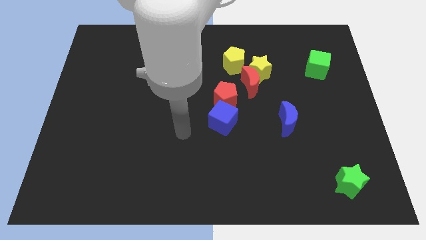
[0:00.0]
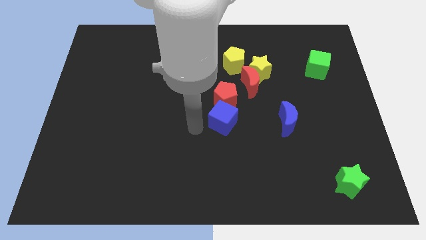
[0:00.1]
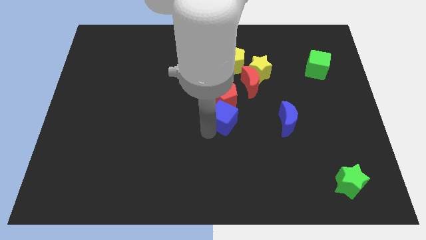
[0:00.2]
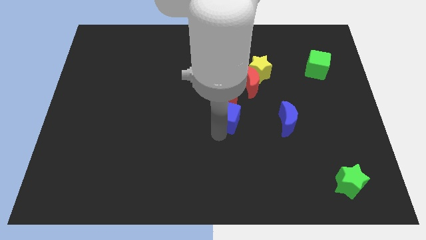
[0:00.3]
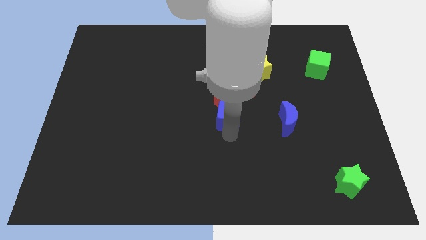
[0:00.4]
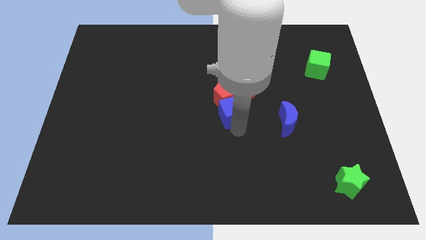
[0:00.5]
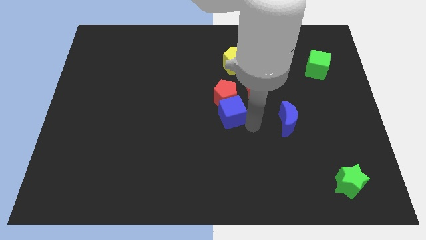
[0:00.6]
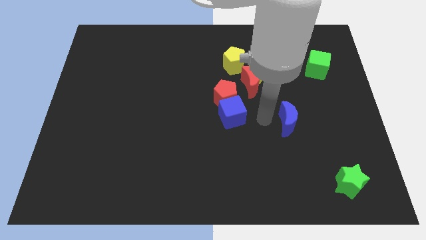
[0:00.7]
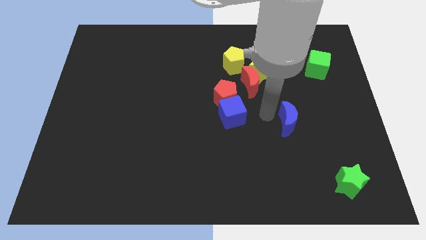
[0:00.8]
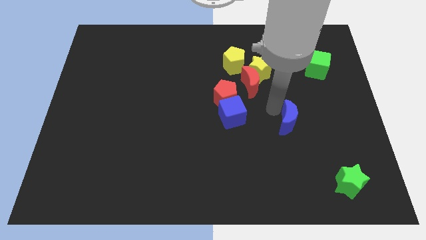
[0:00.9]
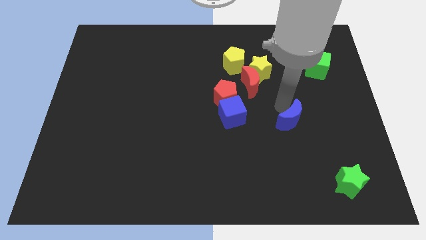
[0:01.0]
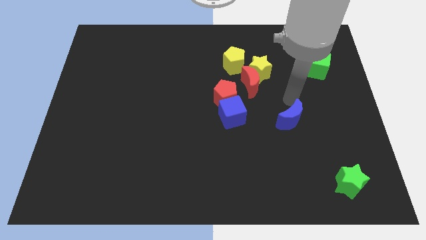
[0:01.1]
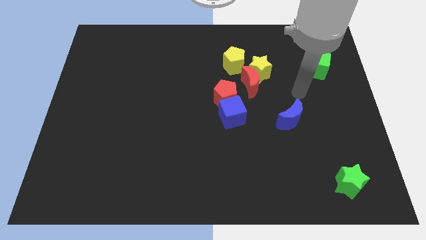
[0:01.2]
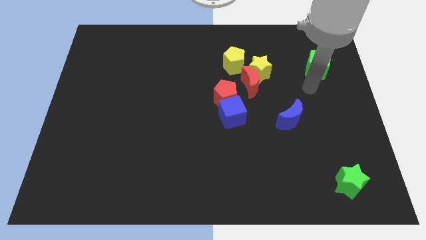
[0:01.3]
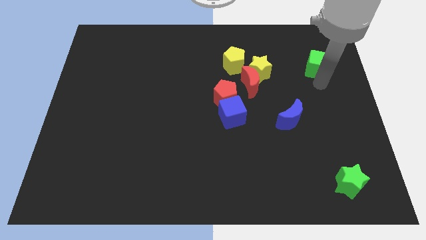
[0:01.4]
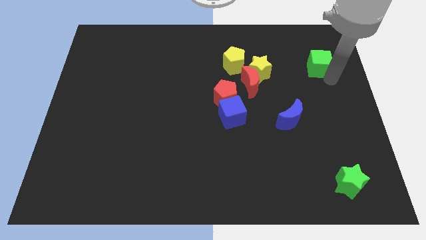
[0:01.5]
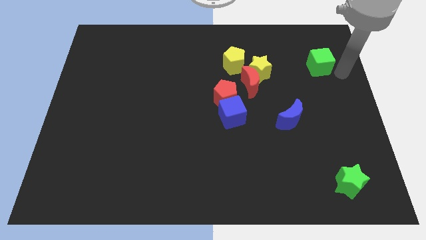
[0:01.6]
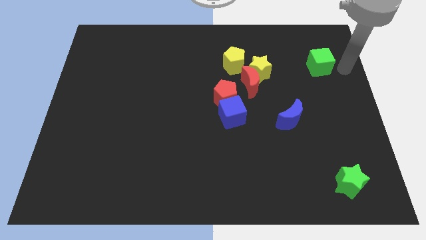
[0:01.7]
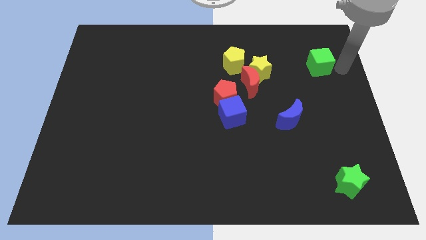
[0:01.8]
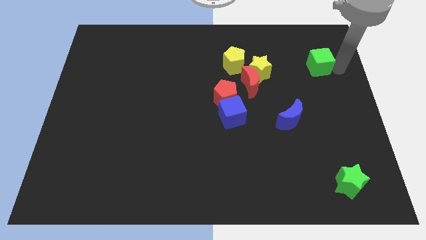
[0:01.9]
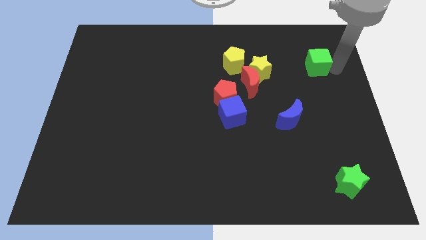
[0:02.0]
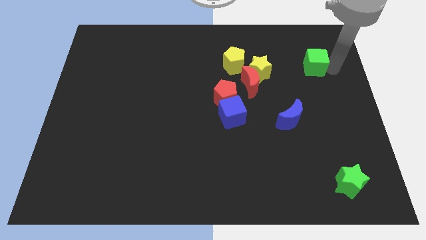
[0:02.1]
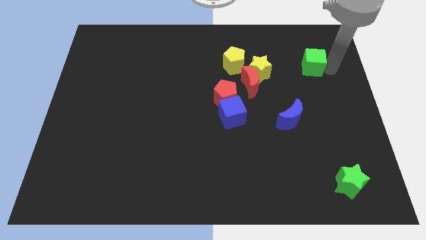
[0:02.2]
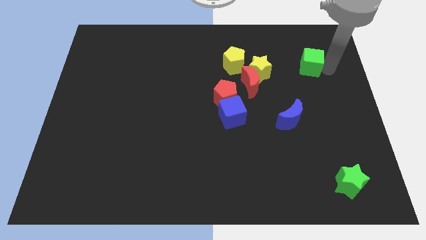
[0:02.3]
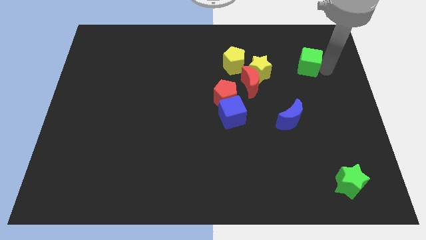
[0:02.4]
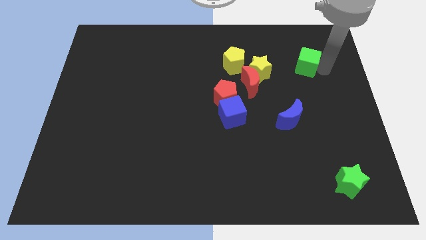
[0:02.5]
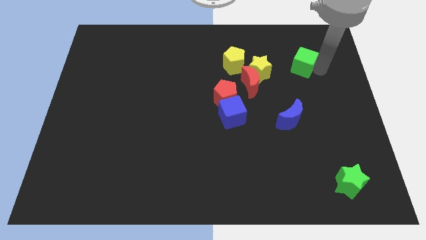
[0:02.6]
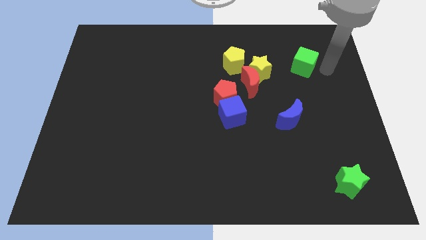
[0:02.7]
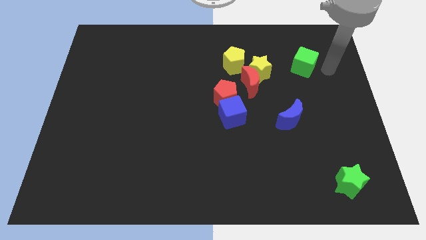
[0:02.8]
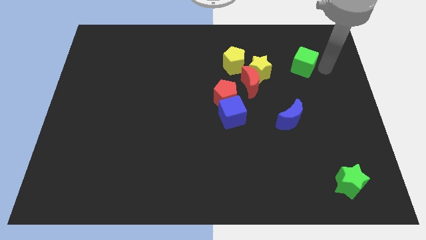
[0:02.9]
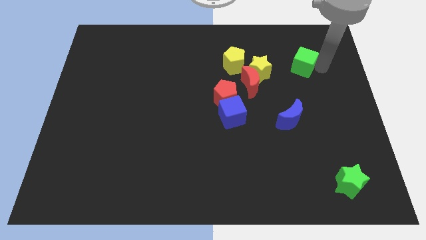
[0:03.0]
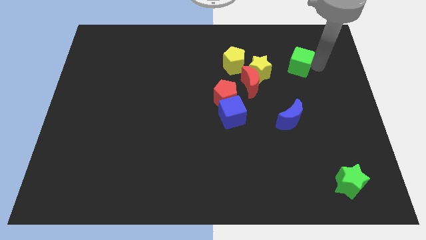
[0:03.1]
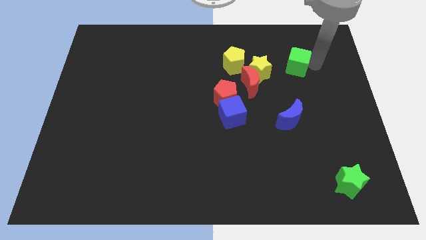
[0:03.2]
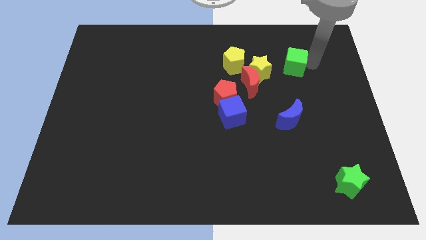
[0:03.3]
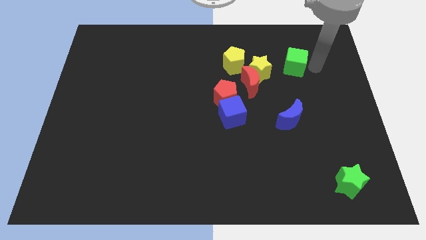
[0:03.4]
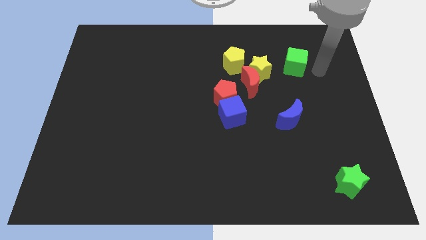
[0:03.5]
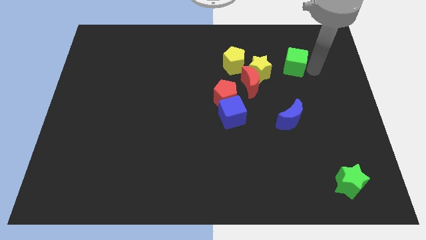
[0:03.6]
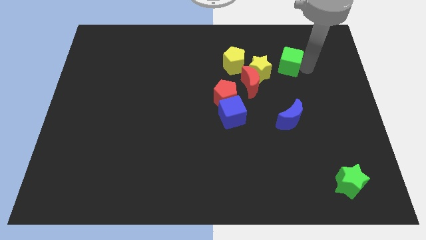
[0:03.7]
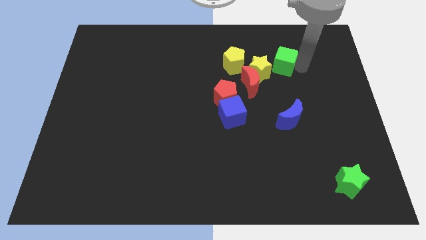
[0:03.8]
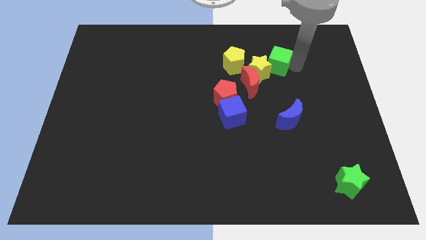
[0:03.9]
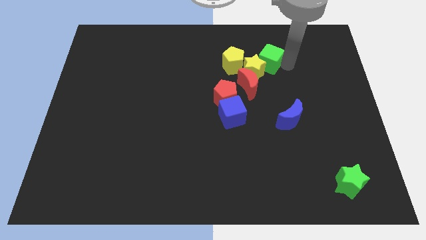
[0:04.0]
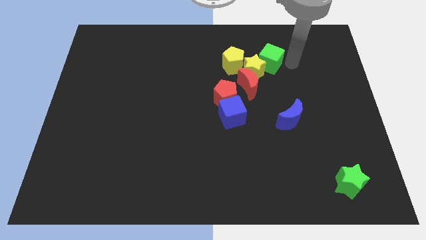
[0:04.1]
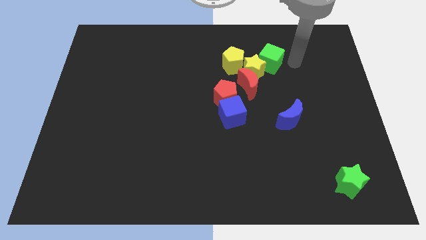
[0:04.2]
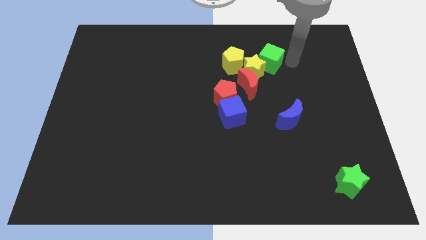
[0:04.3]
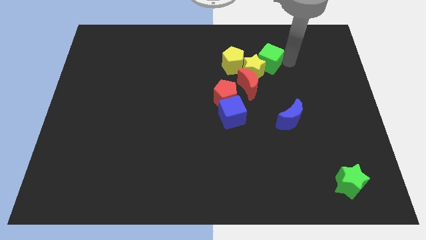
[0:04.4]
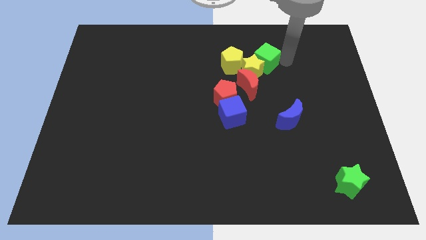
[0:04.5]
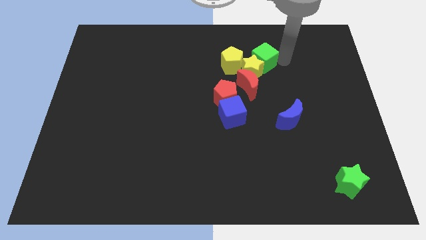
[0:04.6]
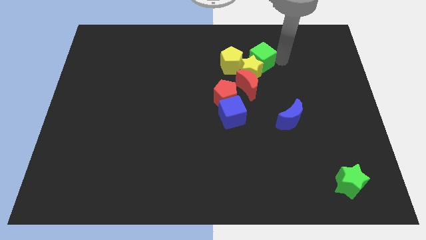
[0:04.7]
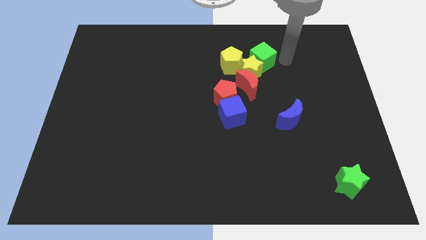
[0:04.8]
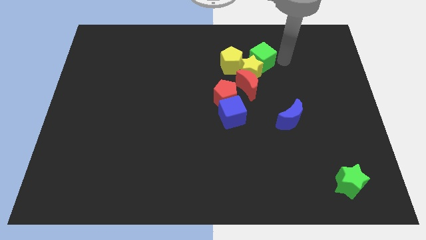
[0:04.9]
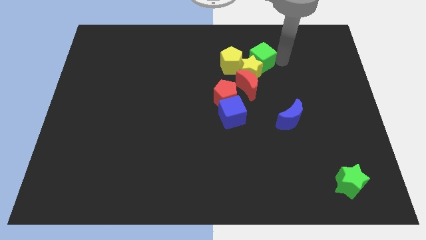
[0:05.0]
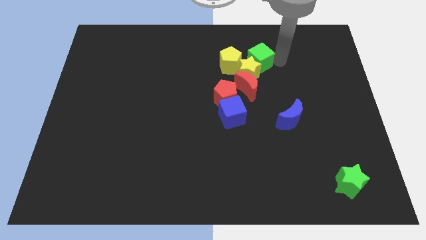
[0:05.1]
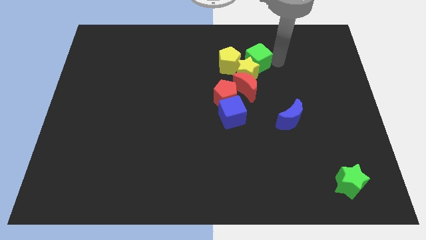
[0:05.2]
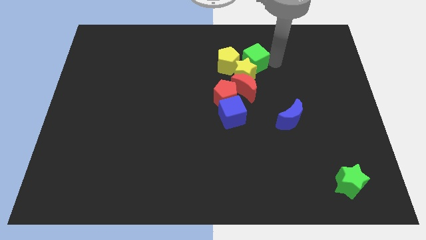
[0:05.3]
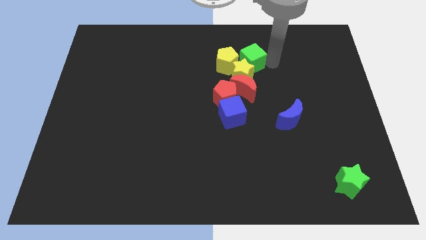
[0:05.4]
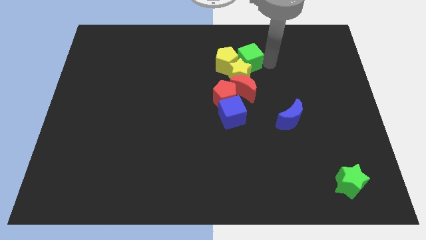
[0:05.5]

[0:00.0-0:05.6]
push the green cube to the yellow pentagon
